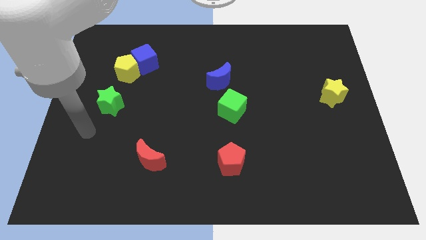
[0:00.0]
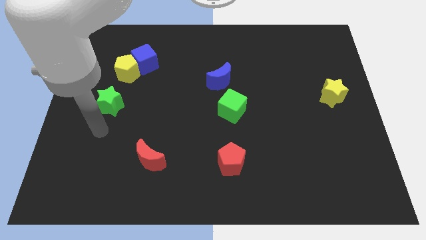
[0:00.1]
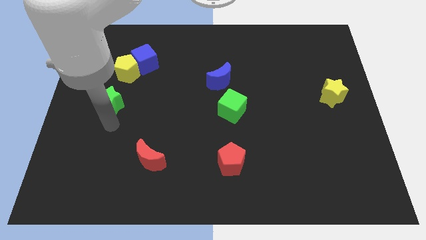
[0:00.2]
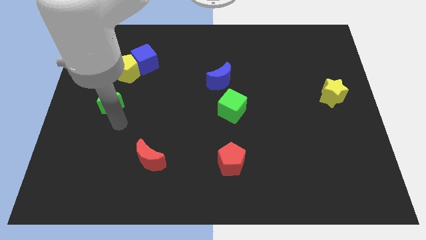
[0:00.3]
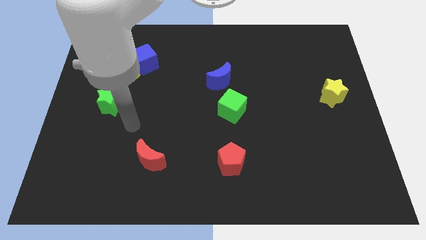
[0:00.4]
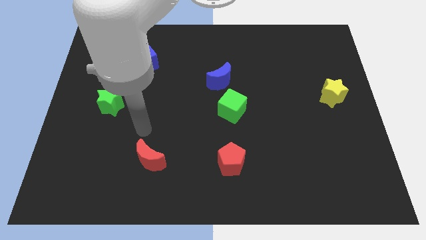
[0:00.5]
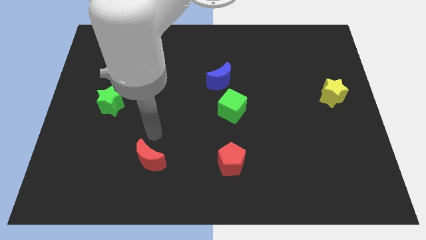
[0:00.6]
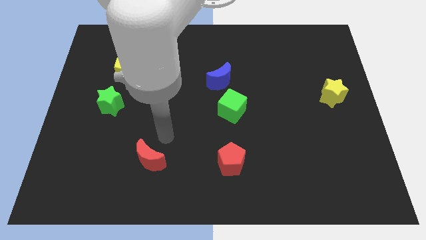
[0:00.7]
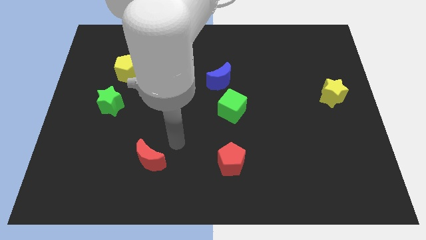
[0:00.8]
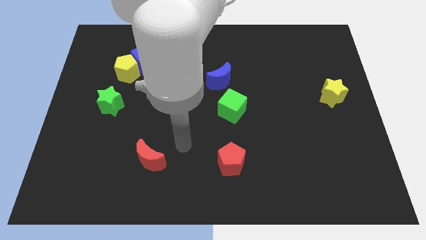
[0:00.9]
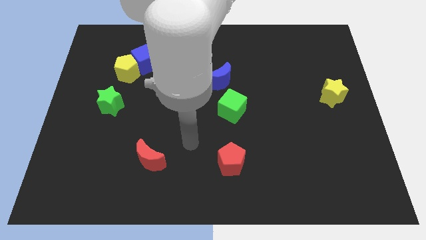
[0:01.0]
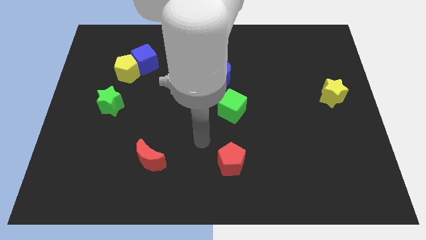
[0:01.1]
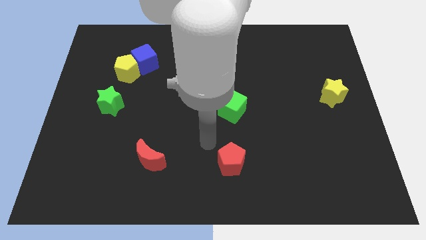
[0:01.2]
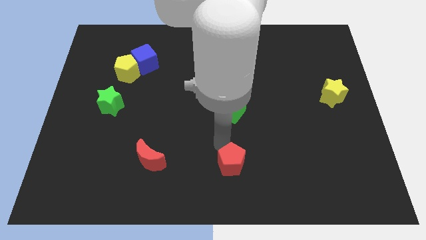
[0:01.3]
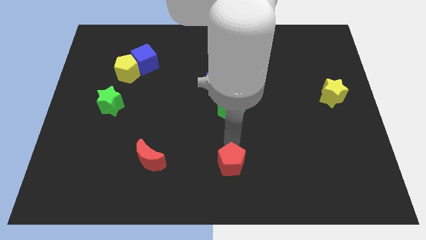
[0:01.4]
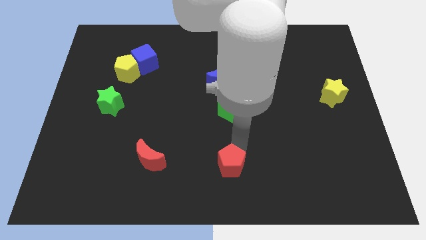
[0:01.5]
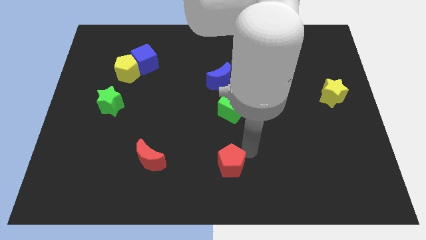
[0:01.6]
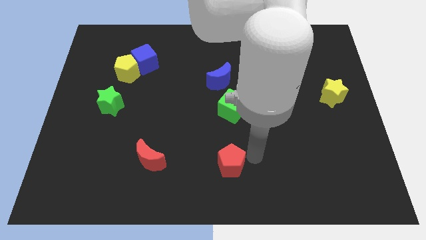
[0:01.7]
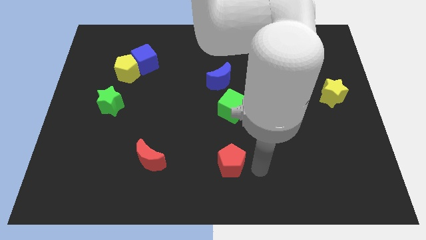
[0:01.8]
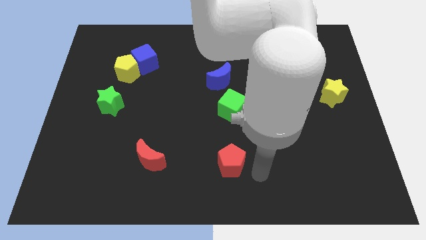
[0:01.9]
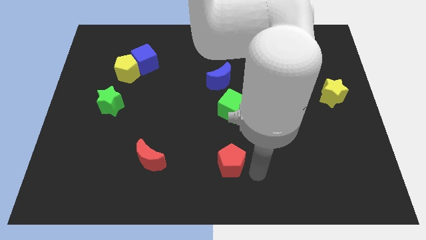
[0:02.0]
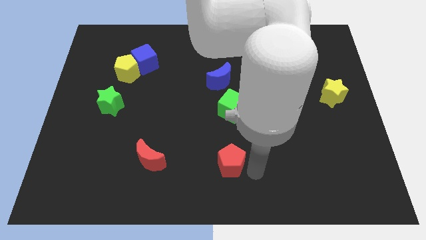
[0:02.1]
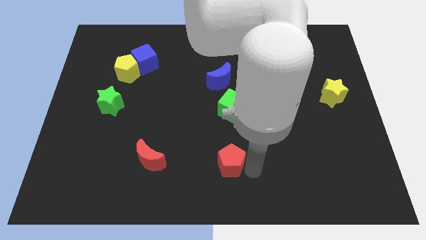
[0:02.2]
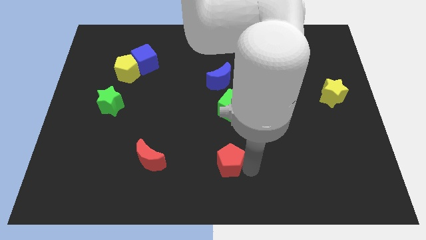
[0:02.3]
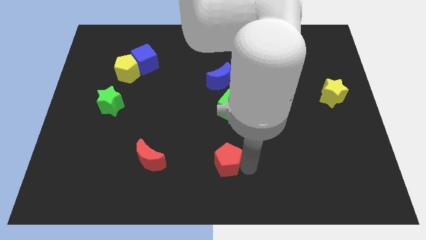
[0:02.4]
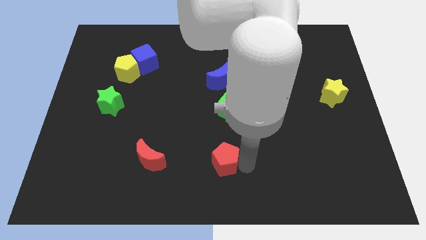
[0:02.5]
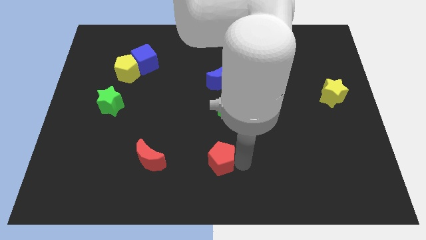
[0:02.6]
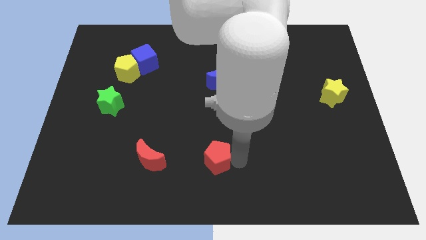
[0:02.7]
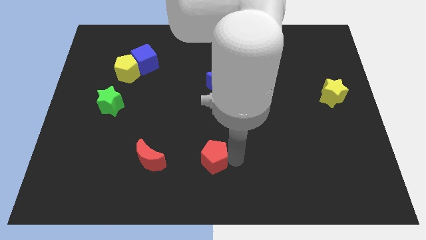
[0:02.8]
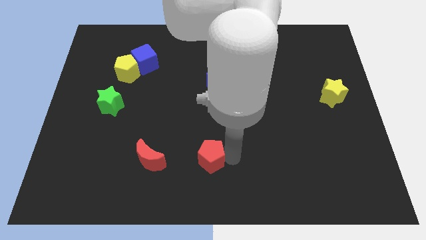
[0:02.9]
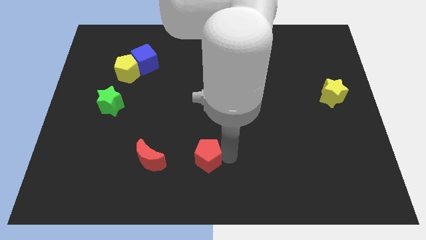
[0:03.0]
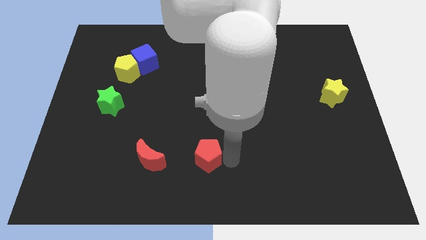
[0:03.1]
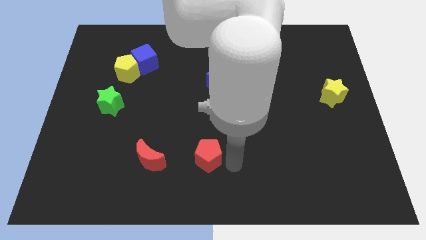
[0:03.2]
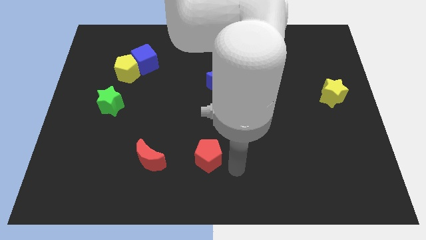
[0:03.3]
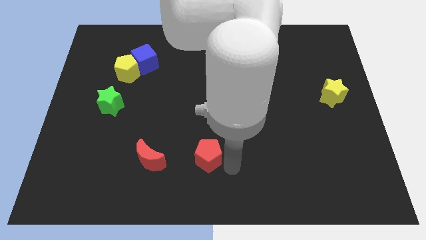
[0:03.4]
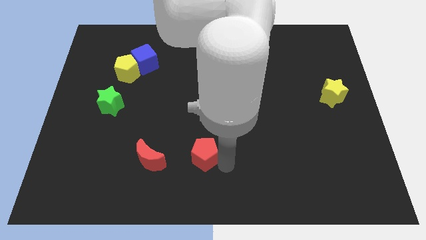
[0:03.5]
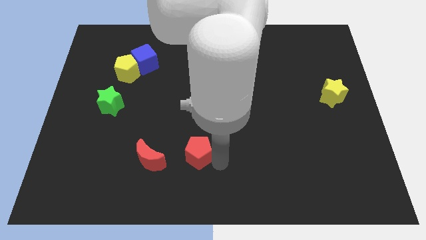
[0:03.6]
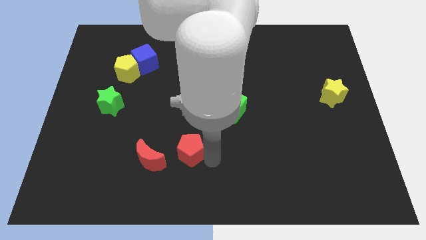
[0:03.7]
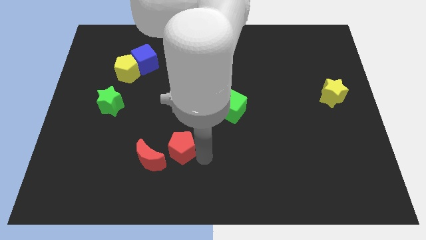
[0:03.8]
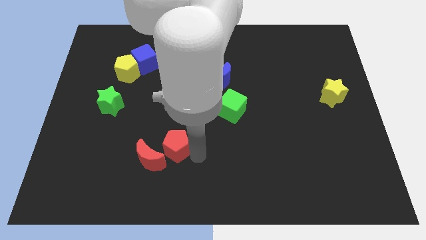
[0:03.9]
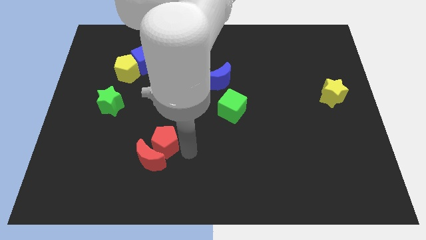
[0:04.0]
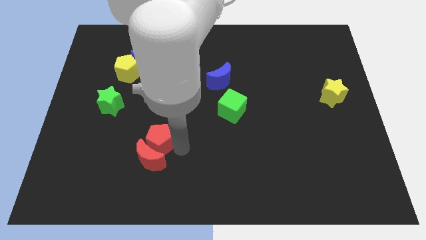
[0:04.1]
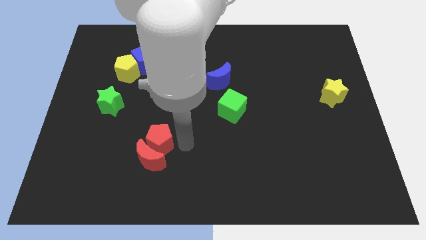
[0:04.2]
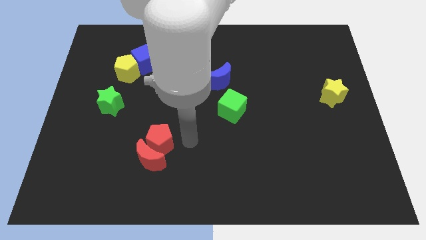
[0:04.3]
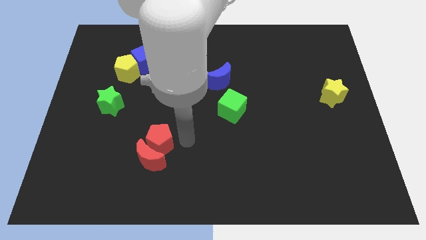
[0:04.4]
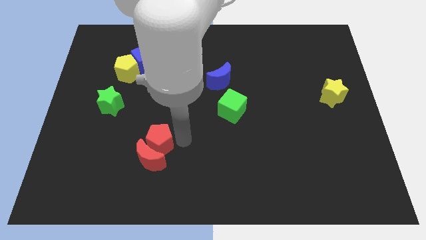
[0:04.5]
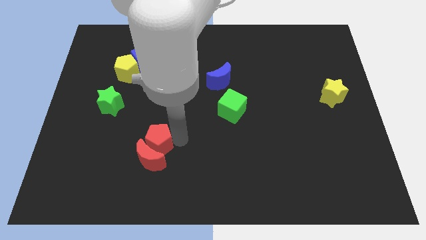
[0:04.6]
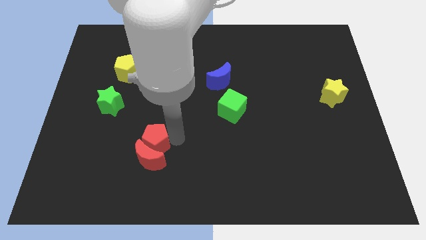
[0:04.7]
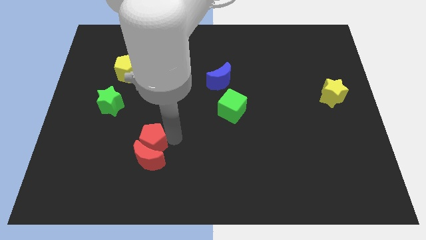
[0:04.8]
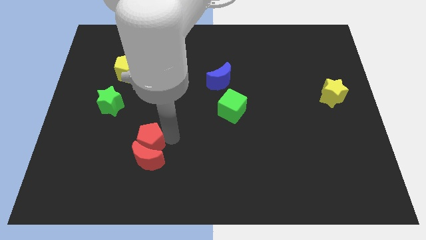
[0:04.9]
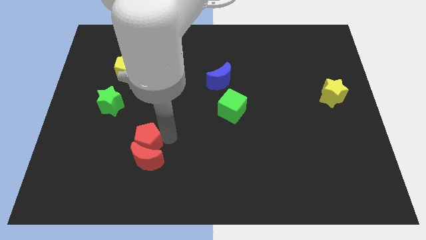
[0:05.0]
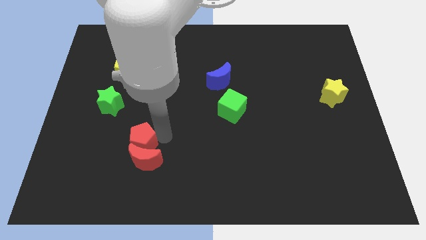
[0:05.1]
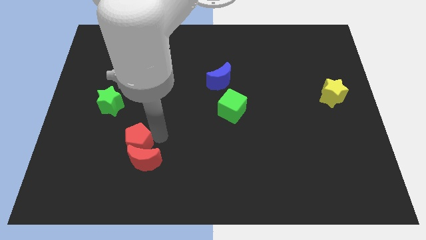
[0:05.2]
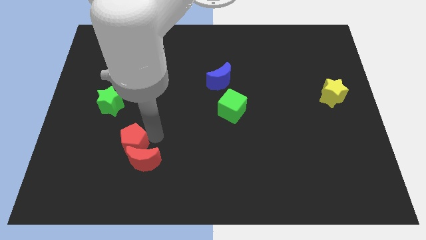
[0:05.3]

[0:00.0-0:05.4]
slide the red pentagon to the left

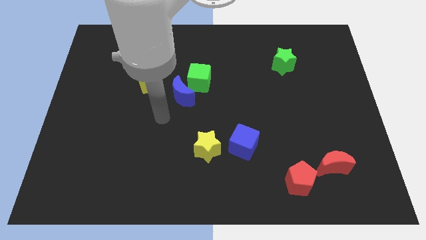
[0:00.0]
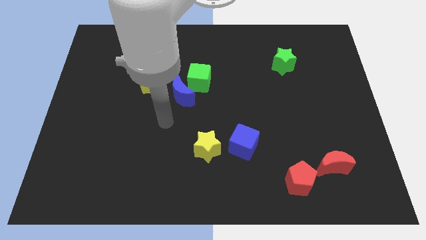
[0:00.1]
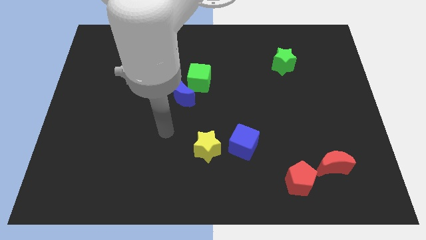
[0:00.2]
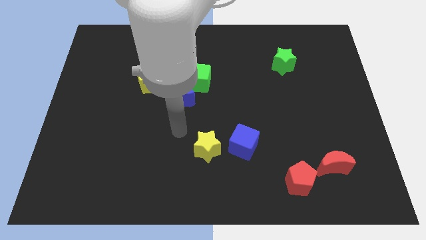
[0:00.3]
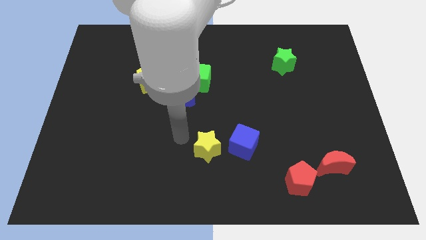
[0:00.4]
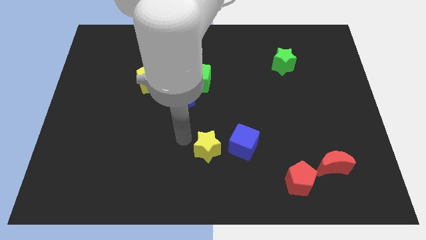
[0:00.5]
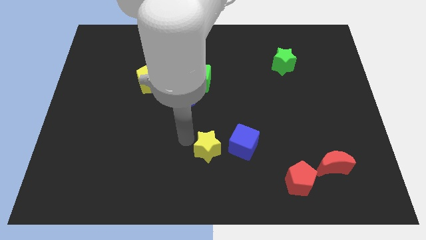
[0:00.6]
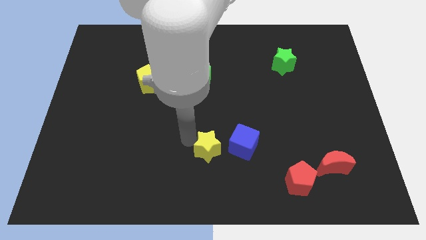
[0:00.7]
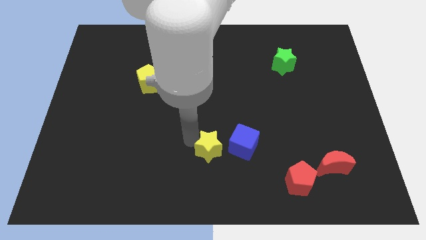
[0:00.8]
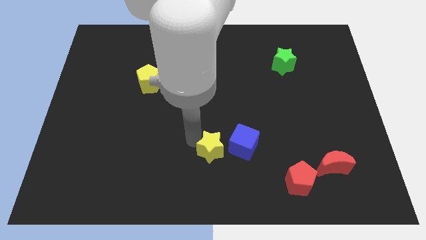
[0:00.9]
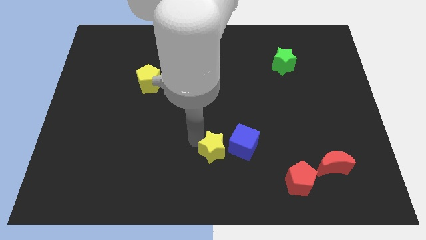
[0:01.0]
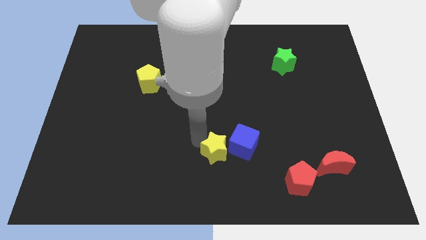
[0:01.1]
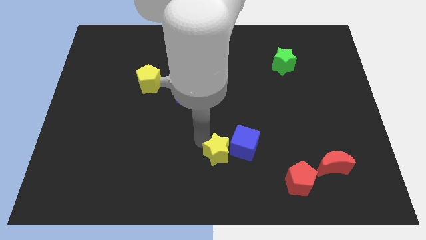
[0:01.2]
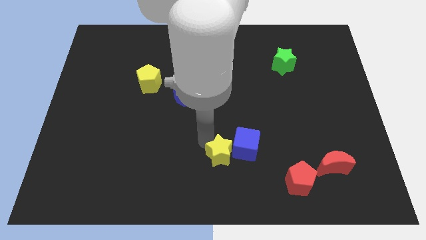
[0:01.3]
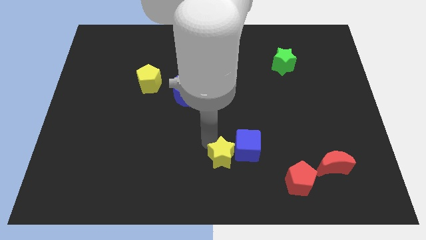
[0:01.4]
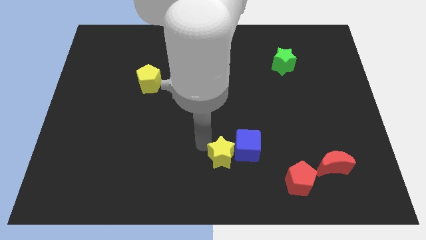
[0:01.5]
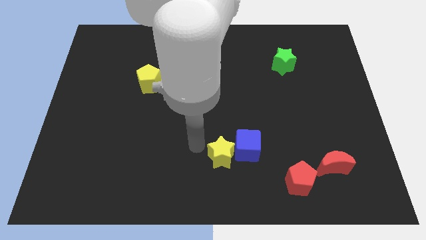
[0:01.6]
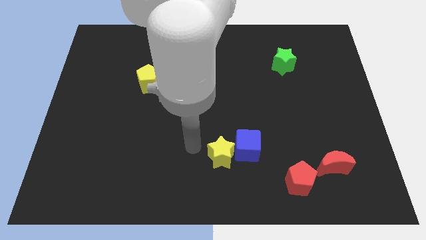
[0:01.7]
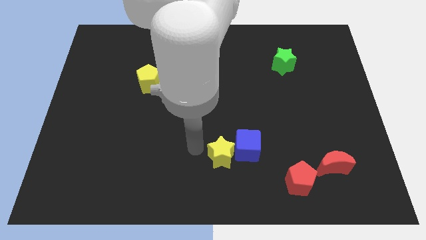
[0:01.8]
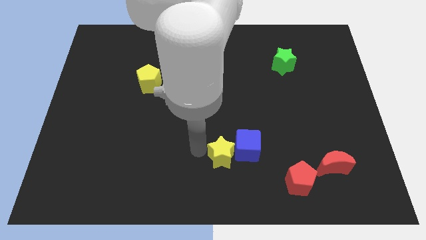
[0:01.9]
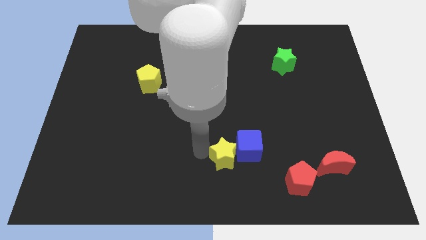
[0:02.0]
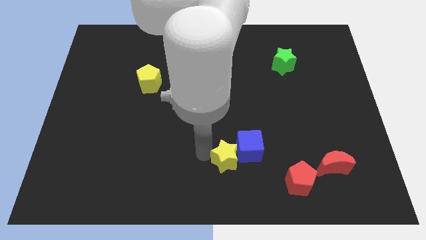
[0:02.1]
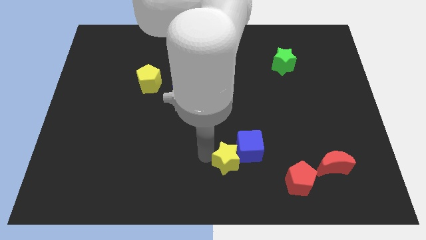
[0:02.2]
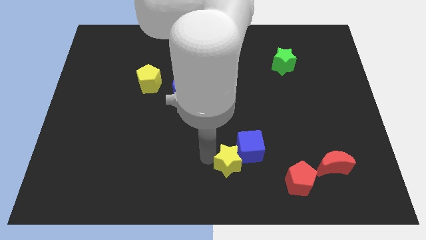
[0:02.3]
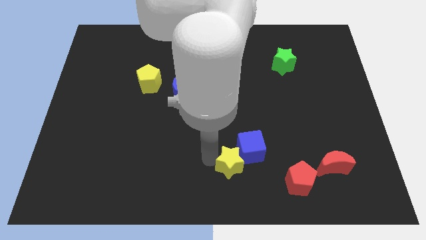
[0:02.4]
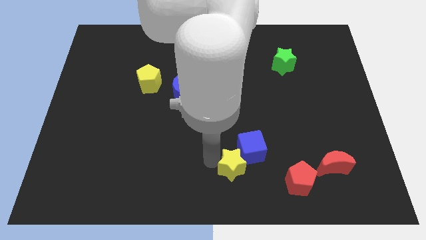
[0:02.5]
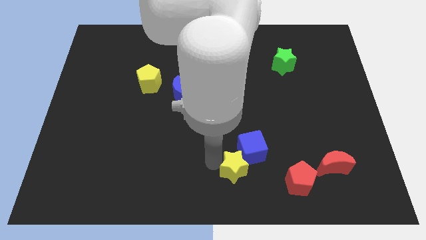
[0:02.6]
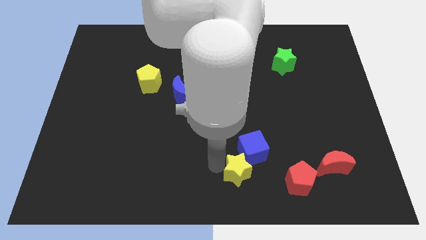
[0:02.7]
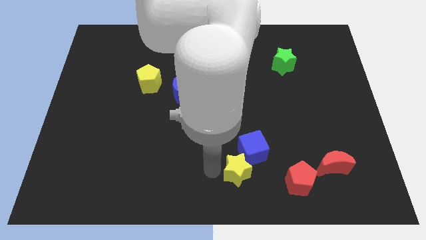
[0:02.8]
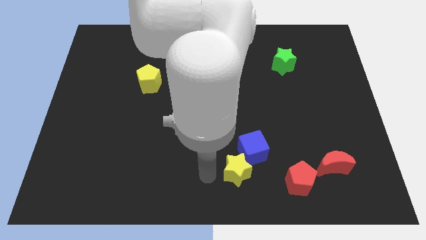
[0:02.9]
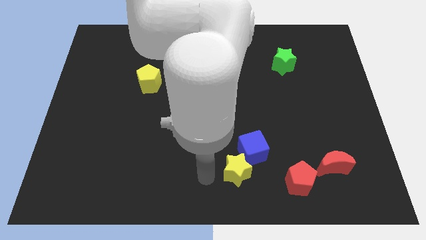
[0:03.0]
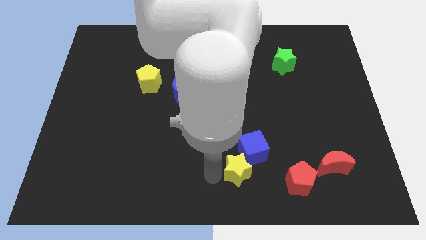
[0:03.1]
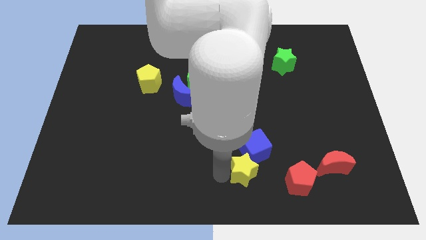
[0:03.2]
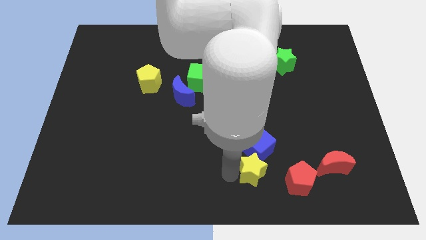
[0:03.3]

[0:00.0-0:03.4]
push the yellow star to the right a little
